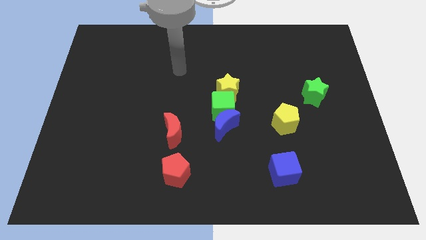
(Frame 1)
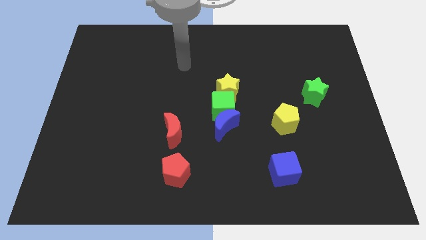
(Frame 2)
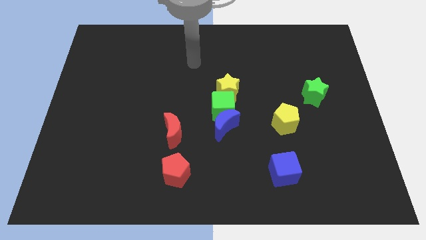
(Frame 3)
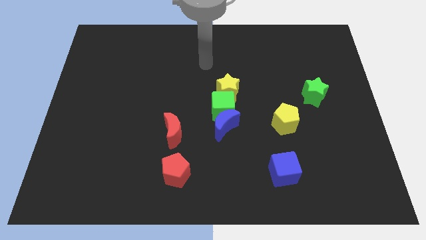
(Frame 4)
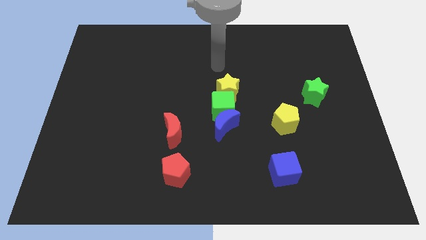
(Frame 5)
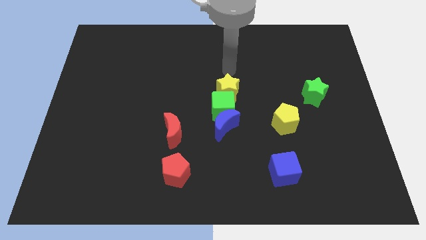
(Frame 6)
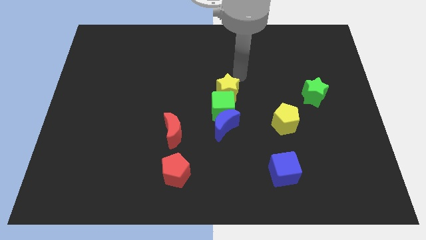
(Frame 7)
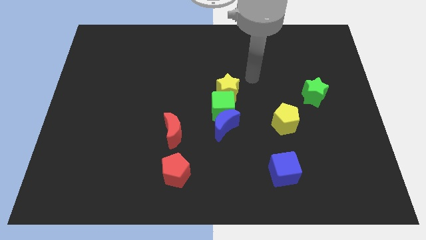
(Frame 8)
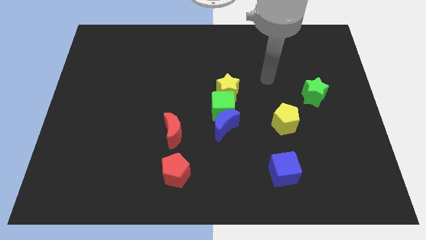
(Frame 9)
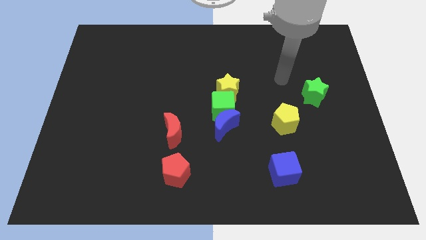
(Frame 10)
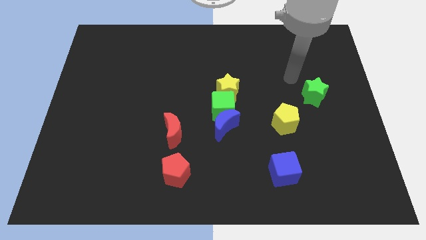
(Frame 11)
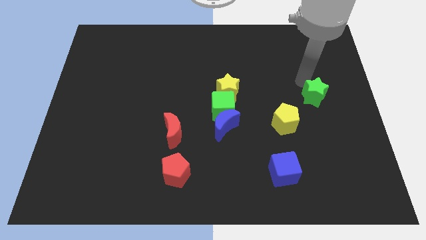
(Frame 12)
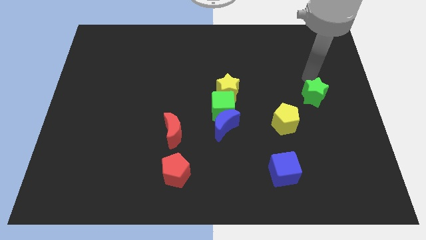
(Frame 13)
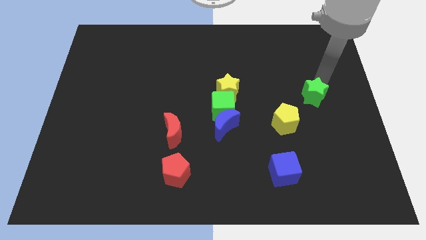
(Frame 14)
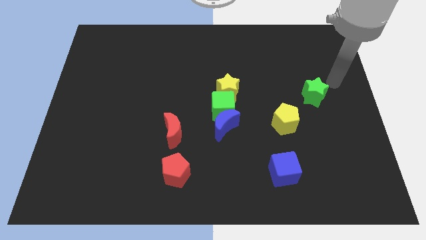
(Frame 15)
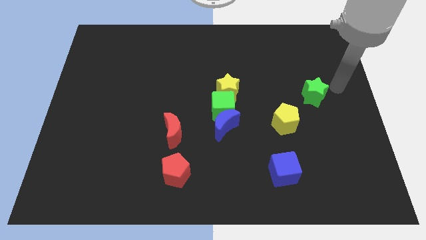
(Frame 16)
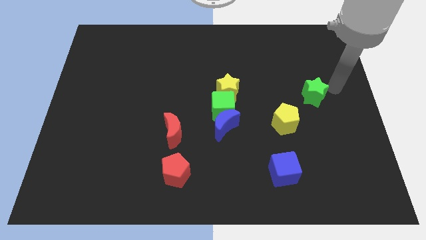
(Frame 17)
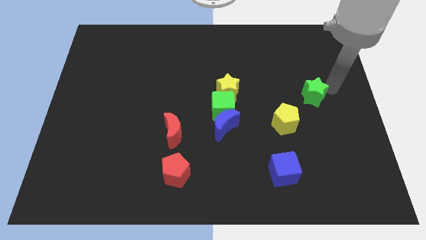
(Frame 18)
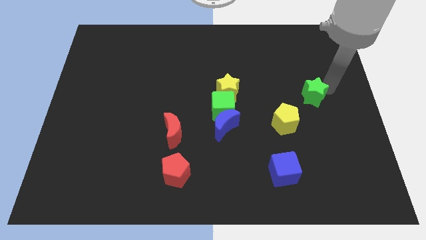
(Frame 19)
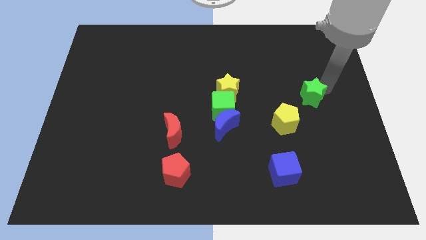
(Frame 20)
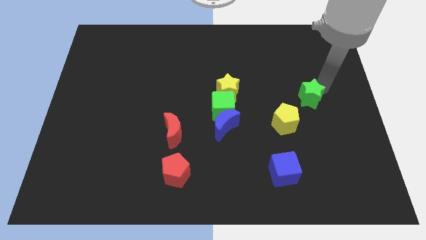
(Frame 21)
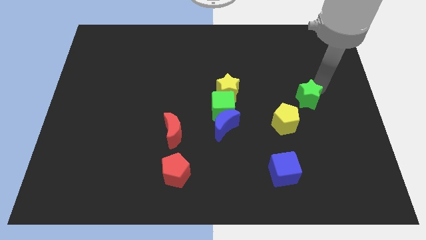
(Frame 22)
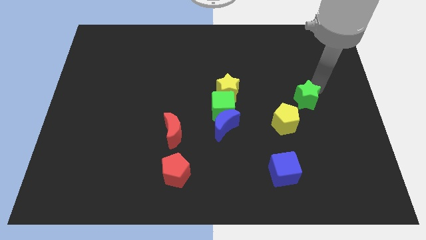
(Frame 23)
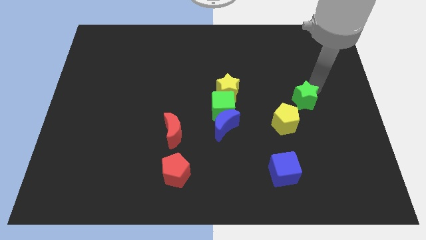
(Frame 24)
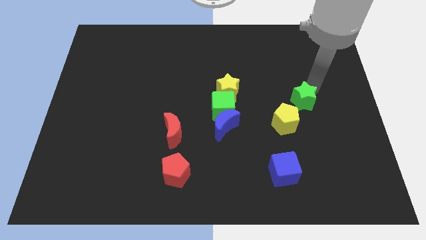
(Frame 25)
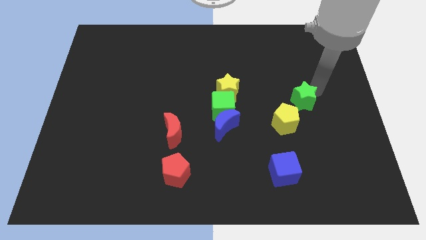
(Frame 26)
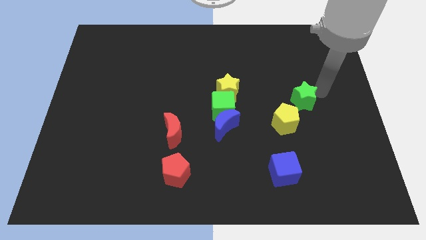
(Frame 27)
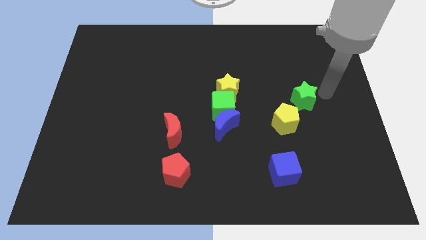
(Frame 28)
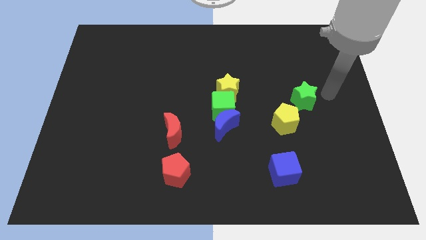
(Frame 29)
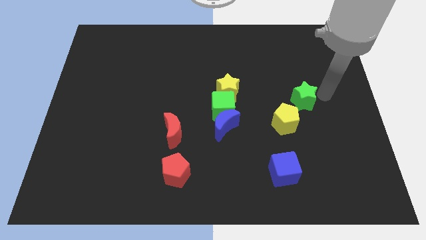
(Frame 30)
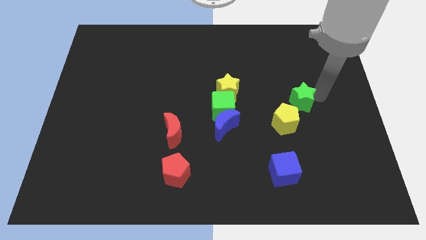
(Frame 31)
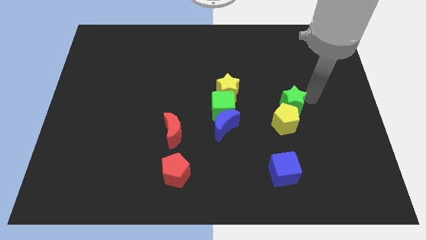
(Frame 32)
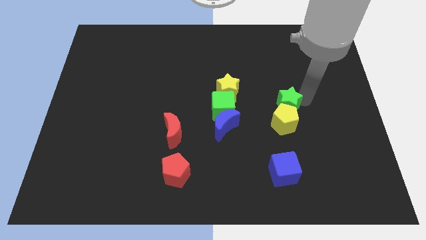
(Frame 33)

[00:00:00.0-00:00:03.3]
move the green star a bit diagonally downwards and to the left

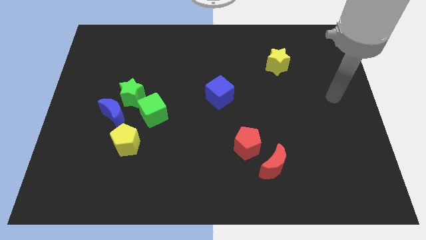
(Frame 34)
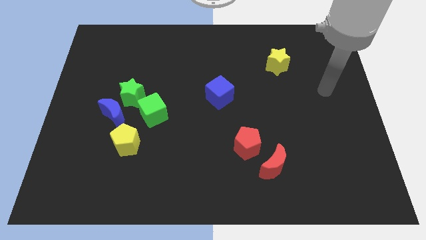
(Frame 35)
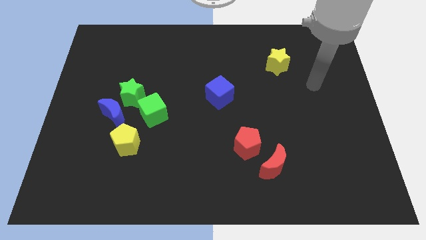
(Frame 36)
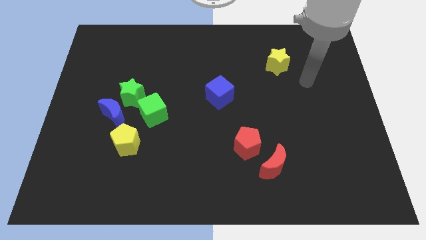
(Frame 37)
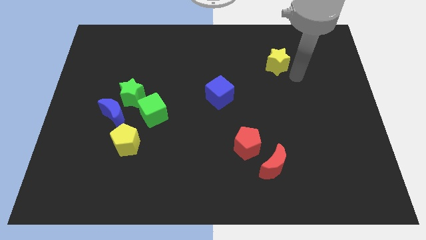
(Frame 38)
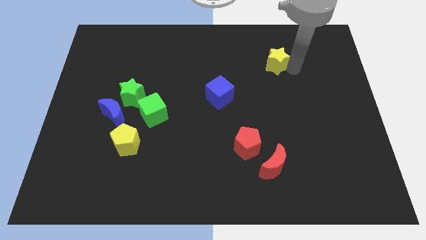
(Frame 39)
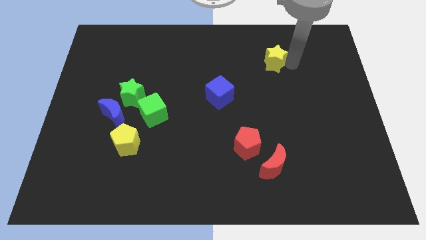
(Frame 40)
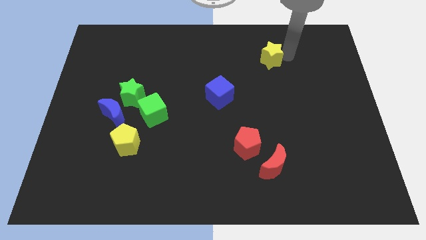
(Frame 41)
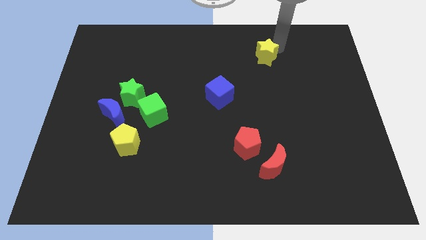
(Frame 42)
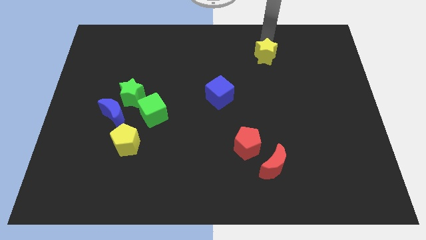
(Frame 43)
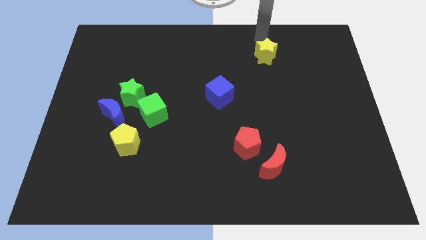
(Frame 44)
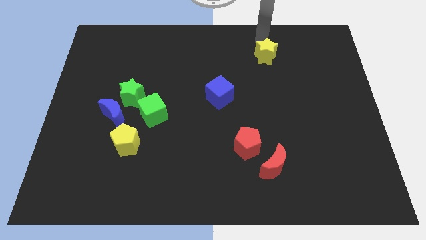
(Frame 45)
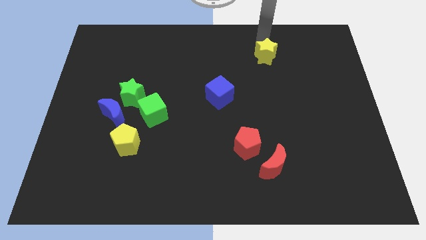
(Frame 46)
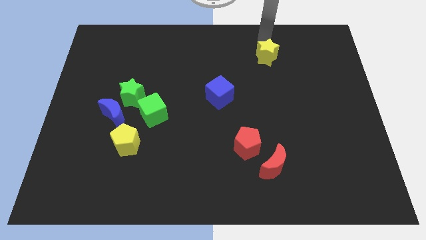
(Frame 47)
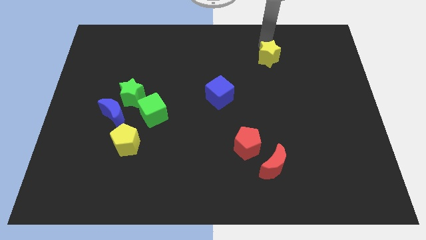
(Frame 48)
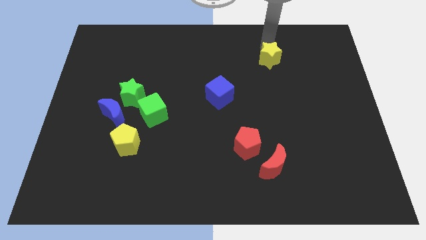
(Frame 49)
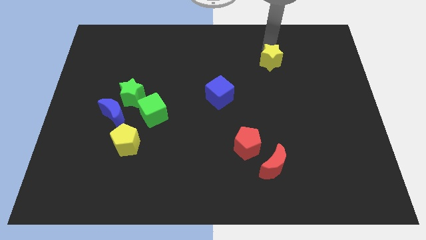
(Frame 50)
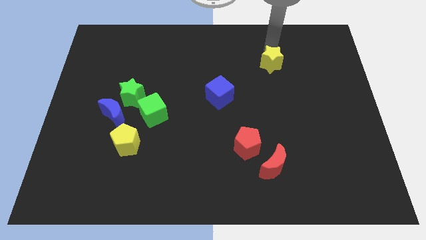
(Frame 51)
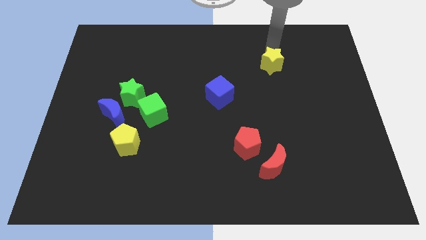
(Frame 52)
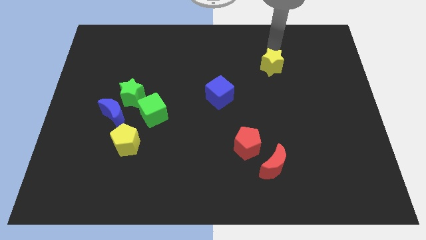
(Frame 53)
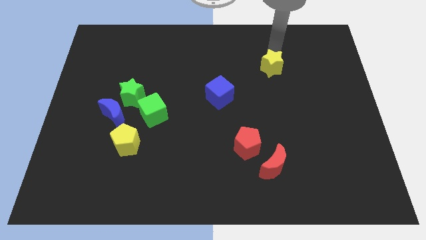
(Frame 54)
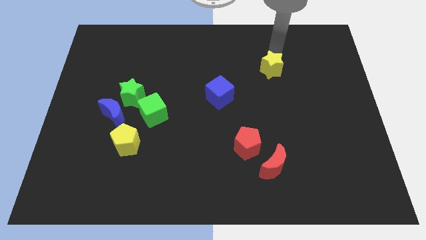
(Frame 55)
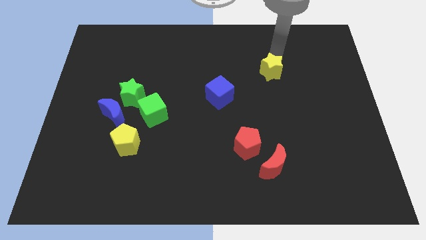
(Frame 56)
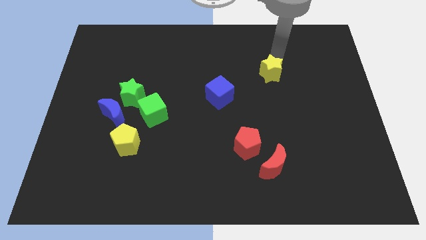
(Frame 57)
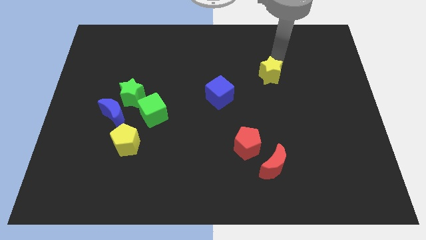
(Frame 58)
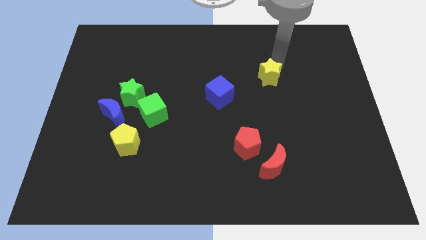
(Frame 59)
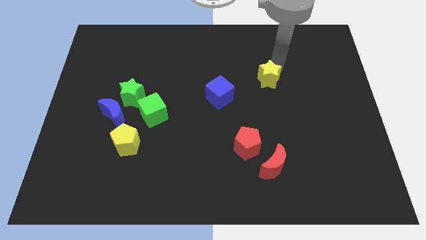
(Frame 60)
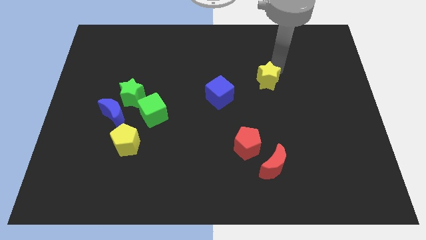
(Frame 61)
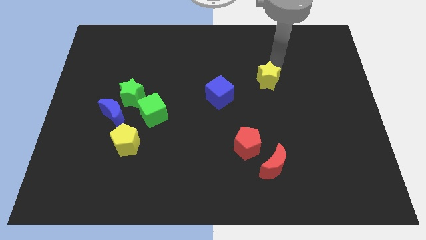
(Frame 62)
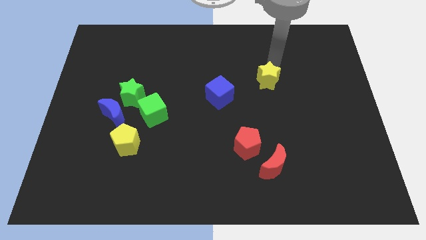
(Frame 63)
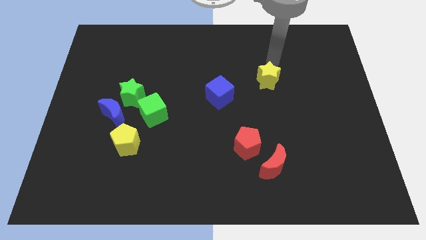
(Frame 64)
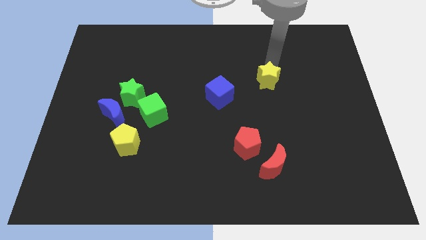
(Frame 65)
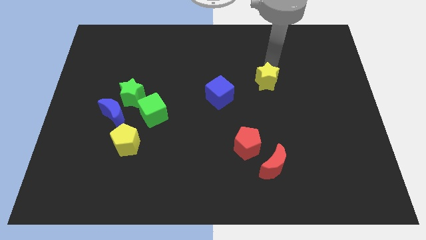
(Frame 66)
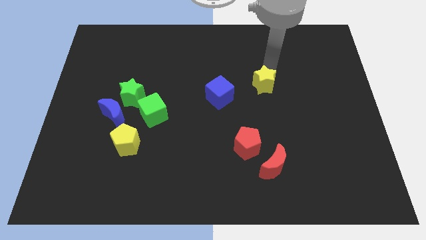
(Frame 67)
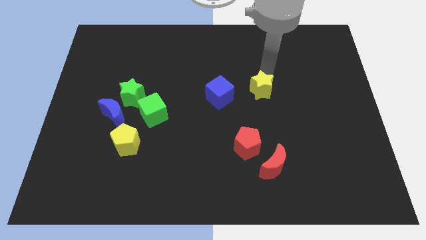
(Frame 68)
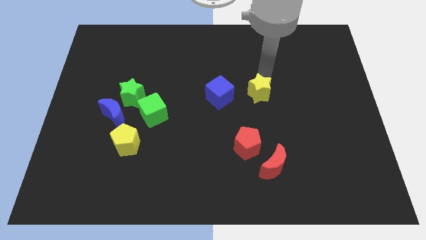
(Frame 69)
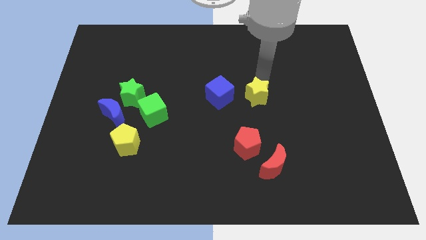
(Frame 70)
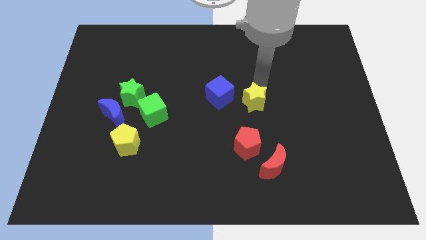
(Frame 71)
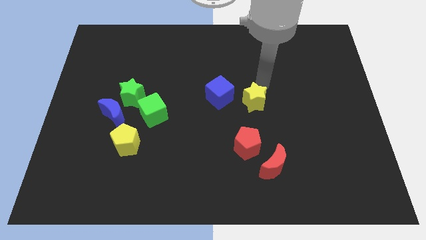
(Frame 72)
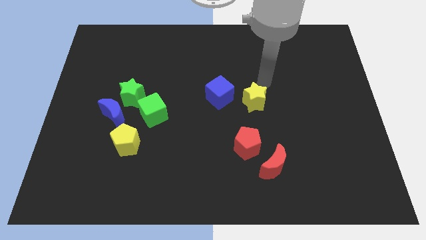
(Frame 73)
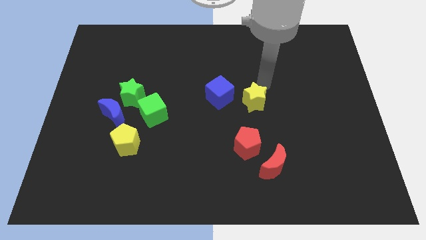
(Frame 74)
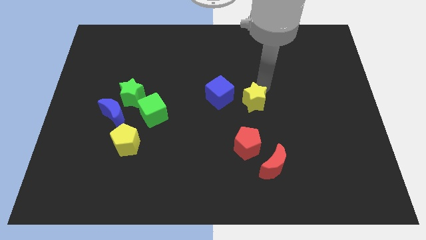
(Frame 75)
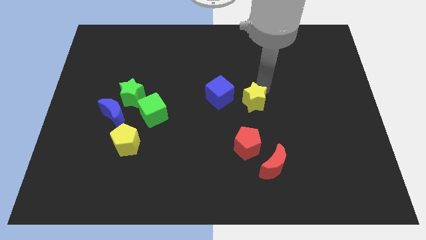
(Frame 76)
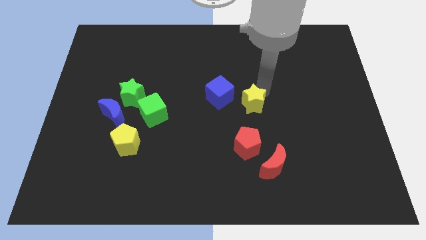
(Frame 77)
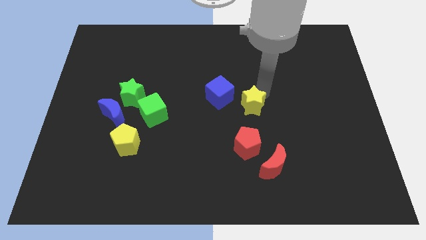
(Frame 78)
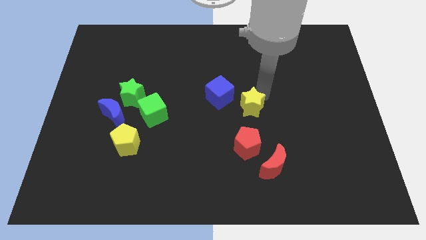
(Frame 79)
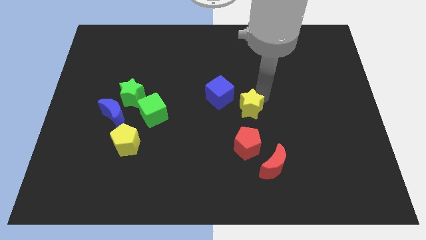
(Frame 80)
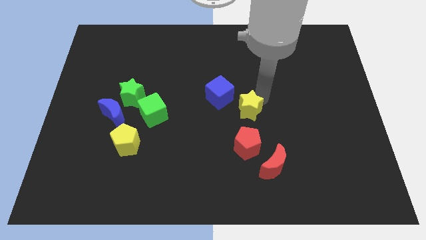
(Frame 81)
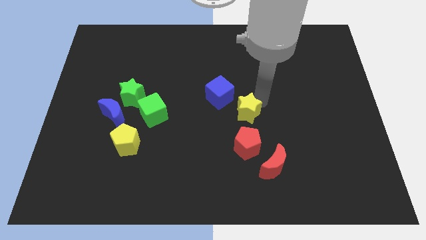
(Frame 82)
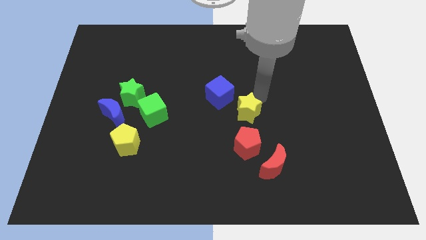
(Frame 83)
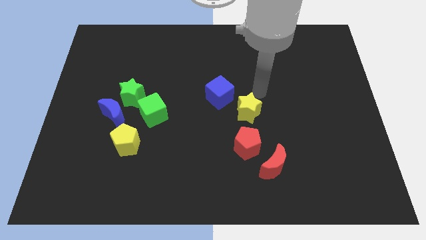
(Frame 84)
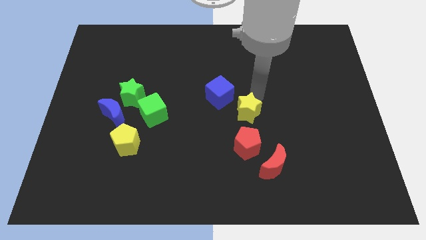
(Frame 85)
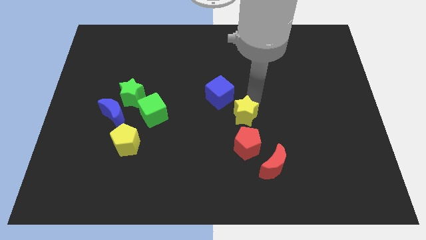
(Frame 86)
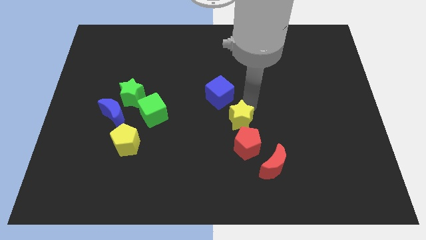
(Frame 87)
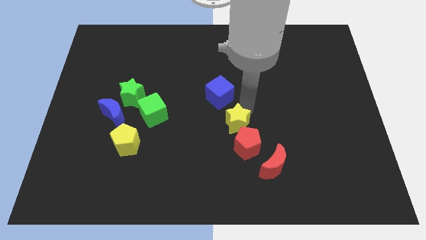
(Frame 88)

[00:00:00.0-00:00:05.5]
move the yellow star downwards and left diagonally
